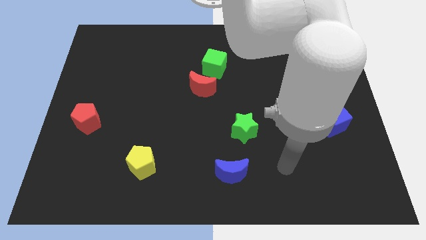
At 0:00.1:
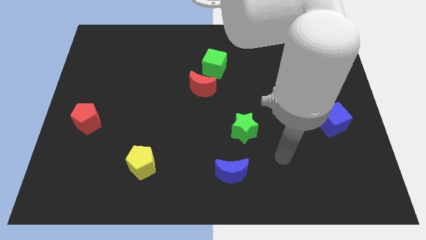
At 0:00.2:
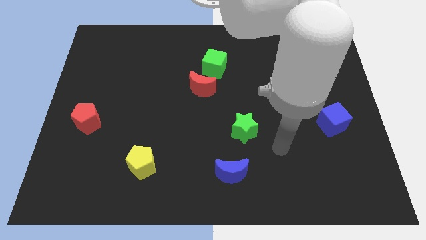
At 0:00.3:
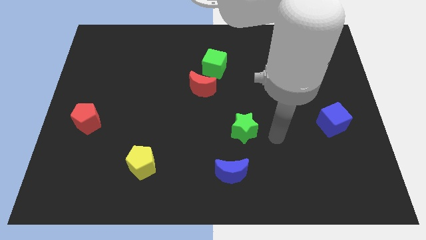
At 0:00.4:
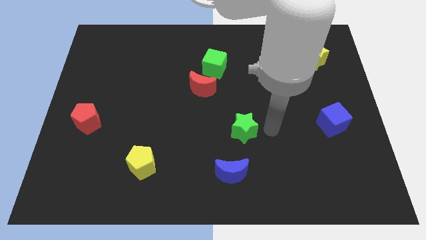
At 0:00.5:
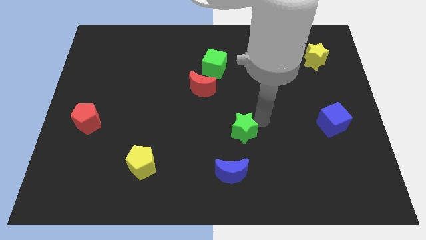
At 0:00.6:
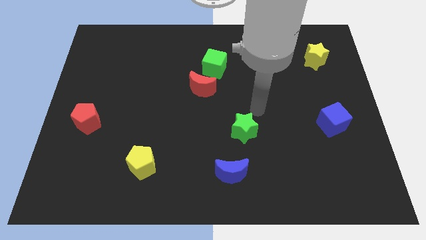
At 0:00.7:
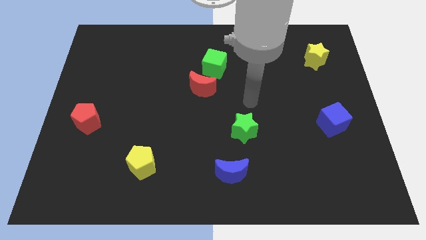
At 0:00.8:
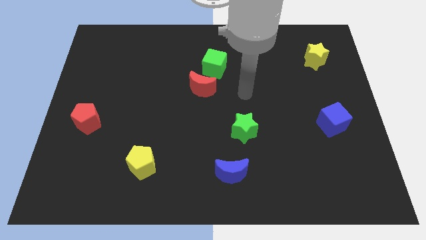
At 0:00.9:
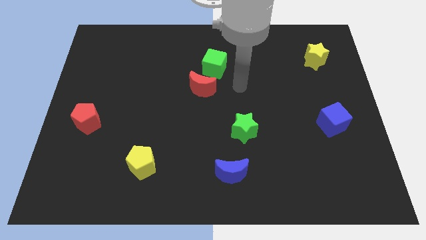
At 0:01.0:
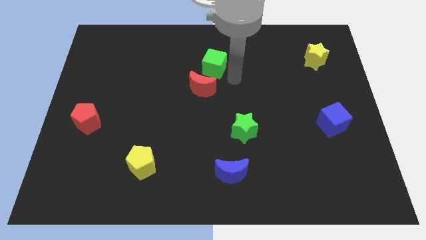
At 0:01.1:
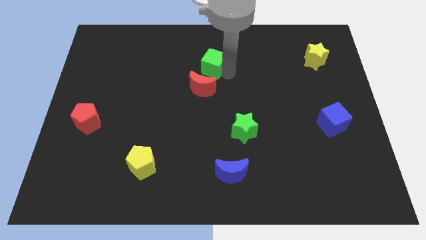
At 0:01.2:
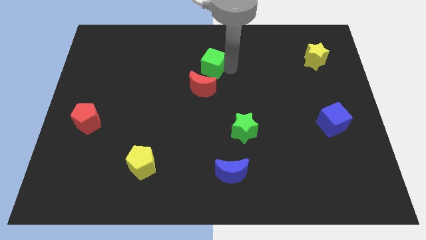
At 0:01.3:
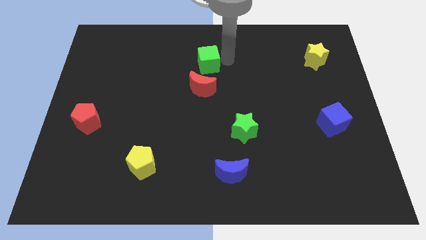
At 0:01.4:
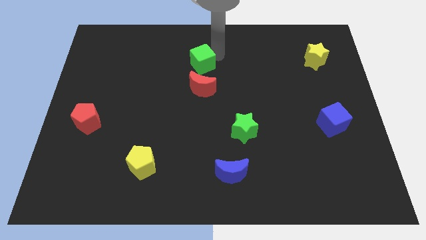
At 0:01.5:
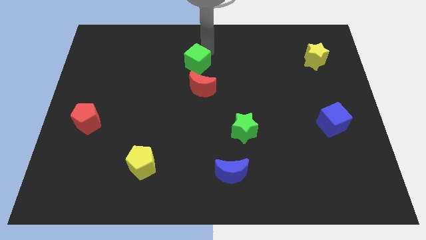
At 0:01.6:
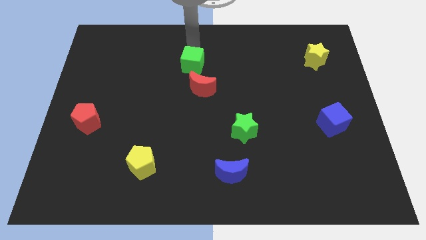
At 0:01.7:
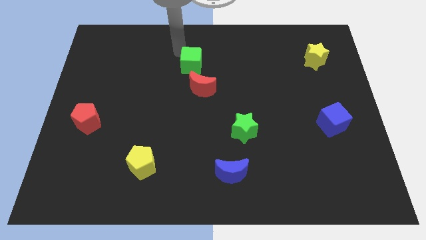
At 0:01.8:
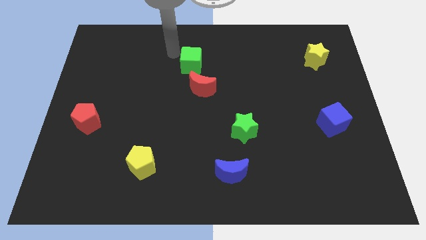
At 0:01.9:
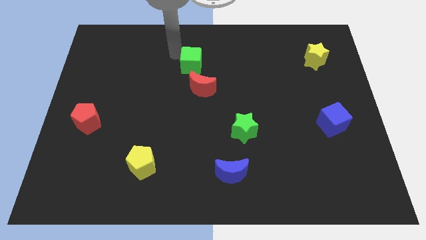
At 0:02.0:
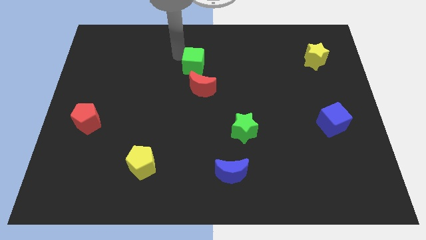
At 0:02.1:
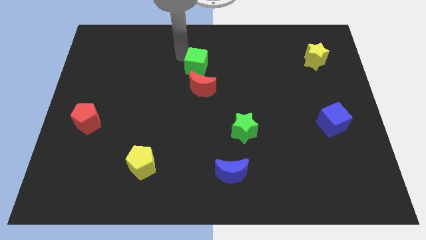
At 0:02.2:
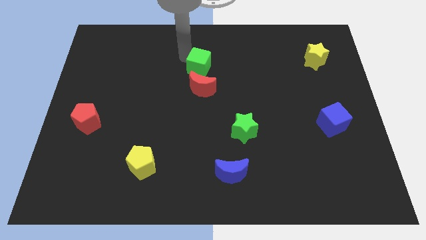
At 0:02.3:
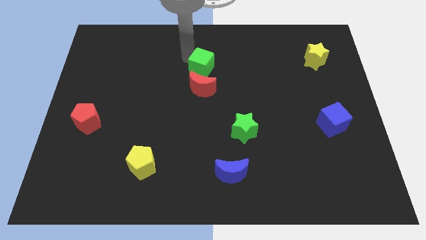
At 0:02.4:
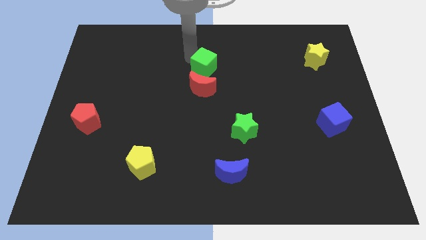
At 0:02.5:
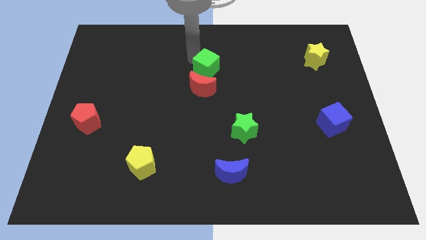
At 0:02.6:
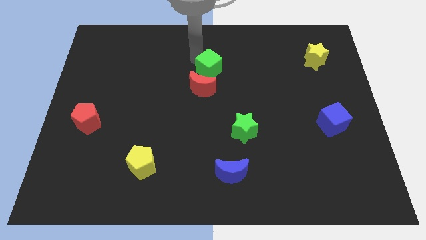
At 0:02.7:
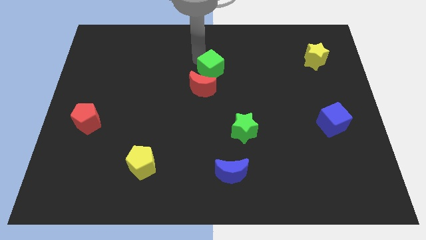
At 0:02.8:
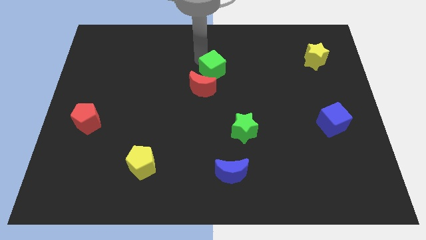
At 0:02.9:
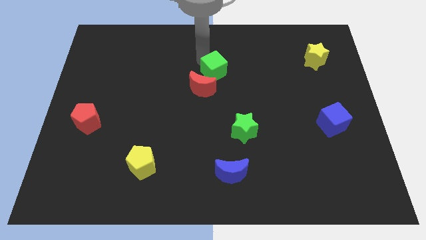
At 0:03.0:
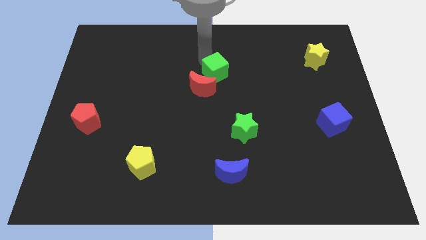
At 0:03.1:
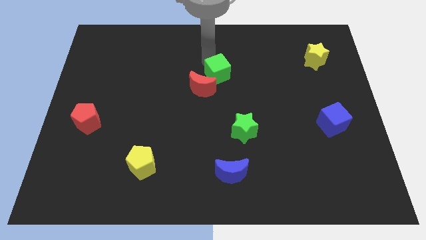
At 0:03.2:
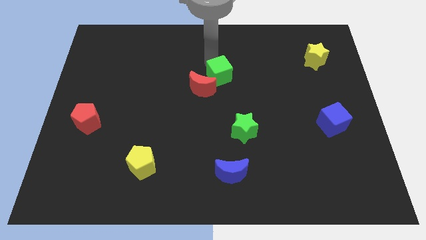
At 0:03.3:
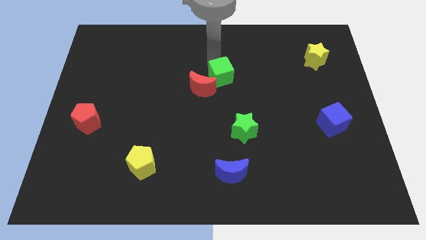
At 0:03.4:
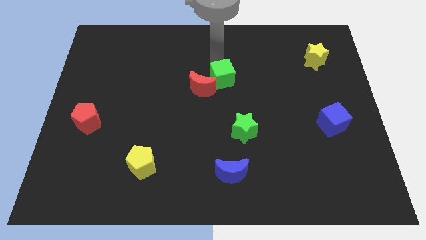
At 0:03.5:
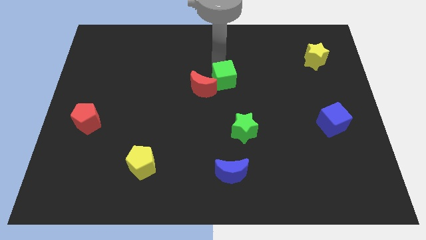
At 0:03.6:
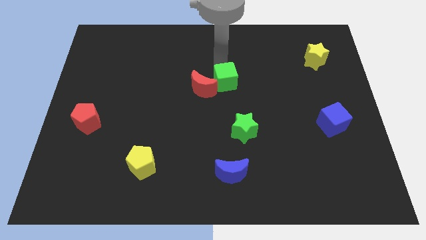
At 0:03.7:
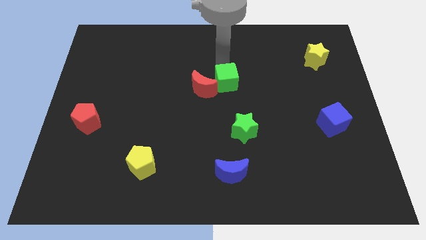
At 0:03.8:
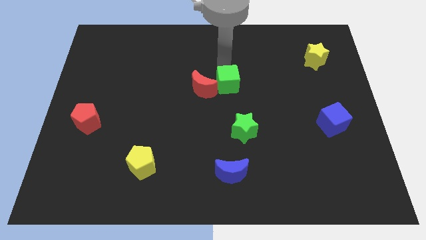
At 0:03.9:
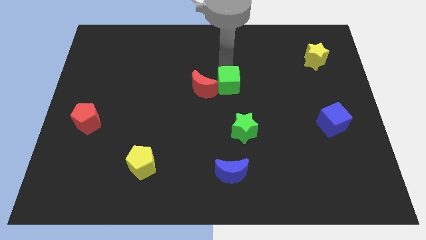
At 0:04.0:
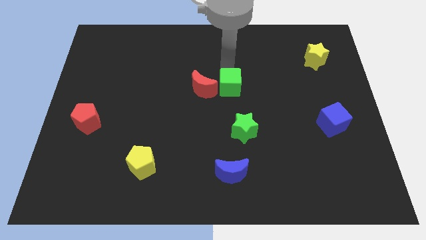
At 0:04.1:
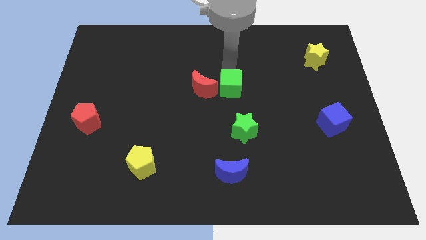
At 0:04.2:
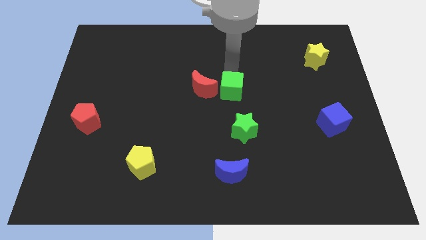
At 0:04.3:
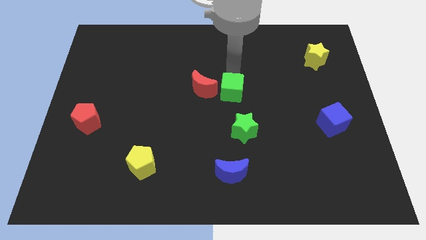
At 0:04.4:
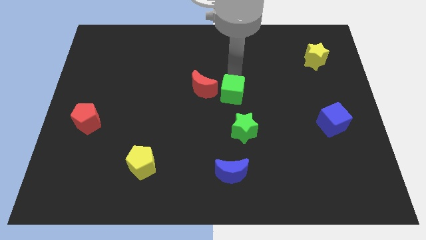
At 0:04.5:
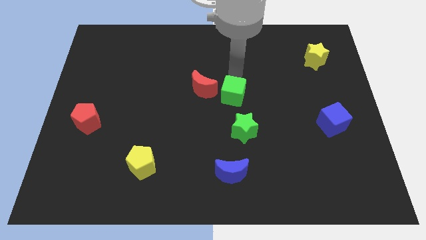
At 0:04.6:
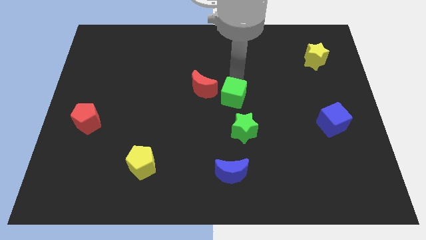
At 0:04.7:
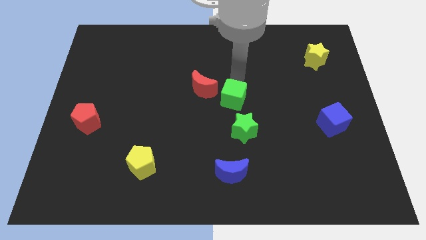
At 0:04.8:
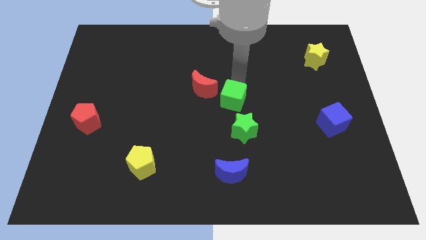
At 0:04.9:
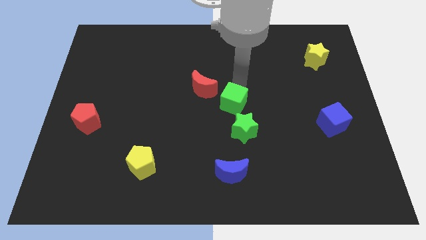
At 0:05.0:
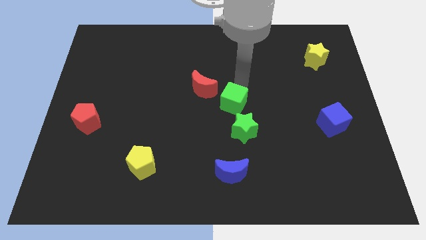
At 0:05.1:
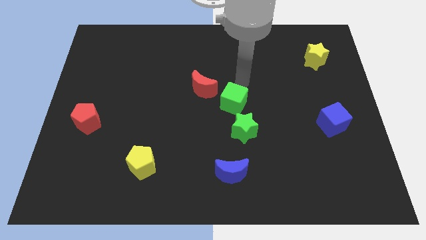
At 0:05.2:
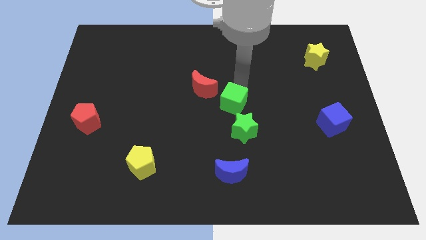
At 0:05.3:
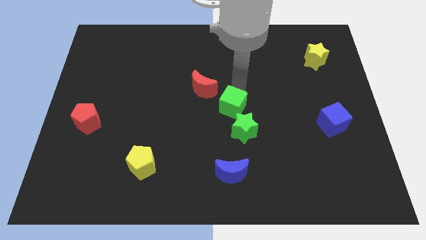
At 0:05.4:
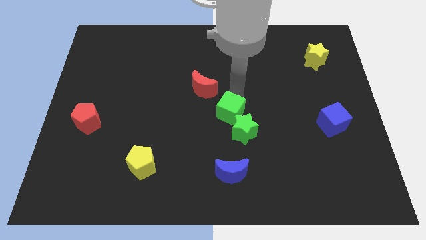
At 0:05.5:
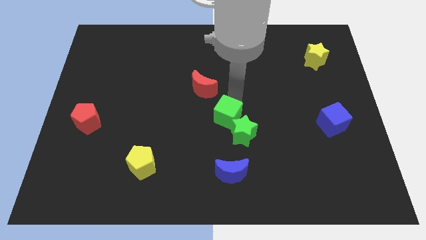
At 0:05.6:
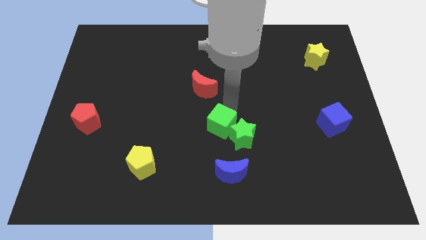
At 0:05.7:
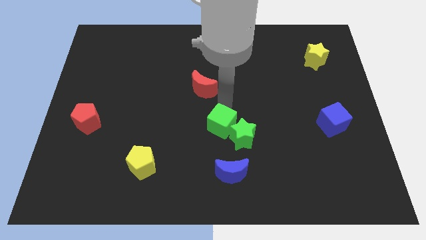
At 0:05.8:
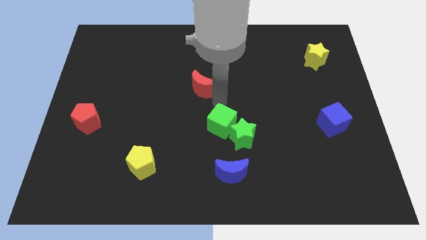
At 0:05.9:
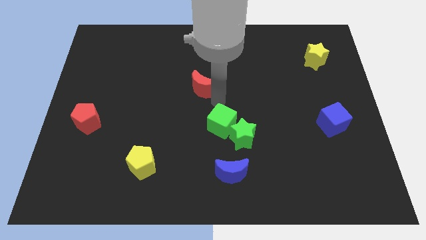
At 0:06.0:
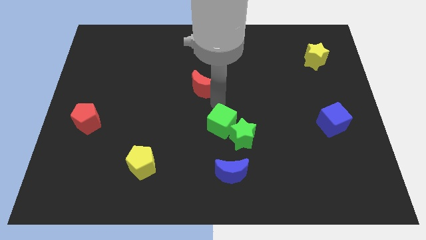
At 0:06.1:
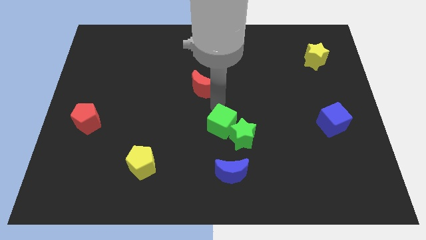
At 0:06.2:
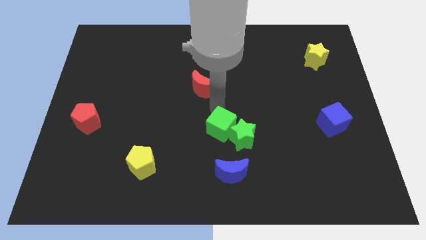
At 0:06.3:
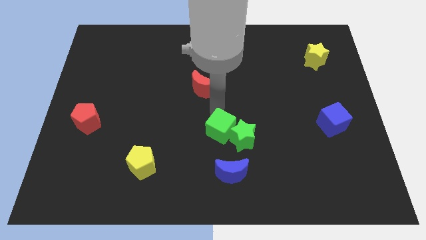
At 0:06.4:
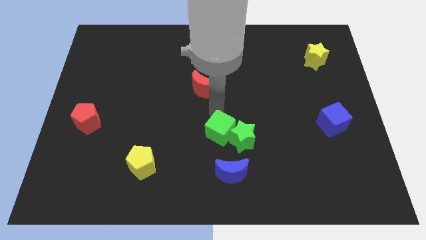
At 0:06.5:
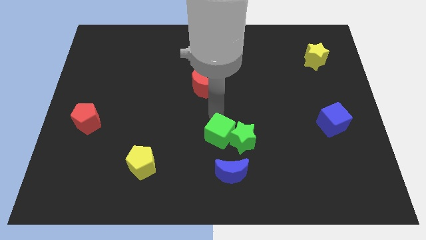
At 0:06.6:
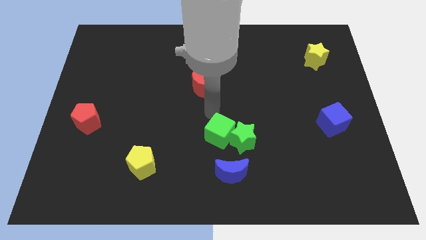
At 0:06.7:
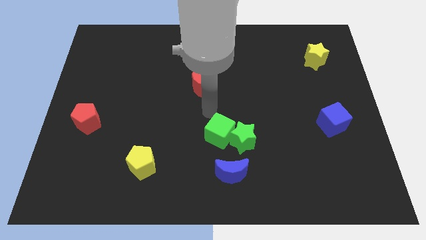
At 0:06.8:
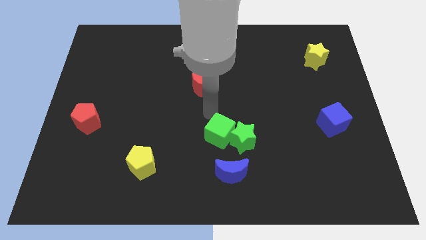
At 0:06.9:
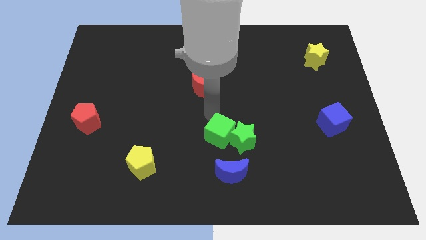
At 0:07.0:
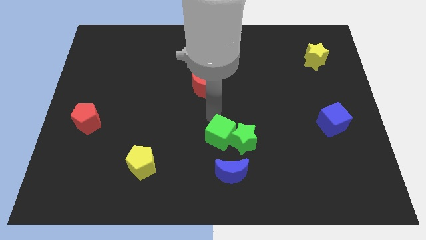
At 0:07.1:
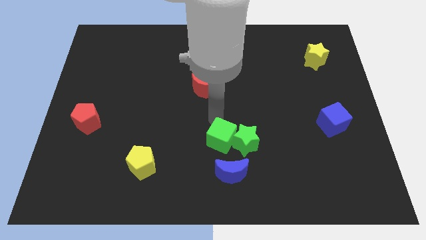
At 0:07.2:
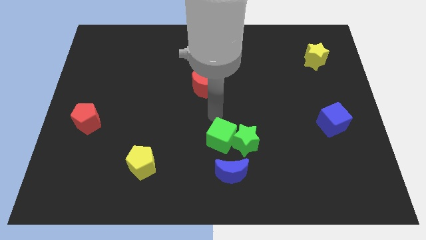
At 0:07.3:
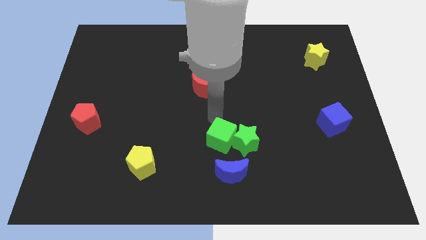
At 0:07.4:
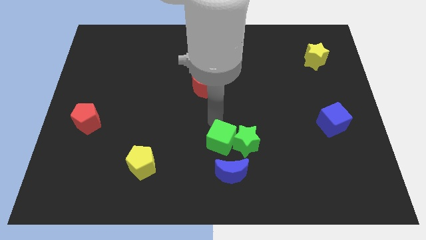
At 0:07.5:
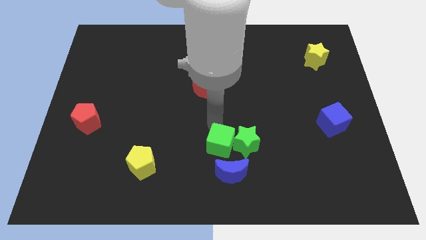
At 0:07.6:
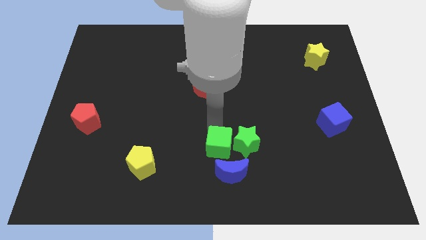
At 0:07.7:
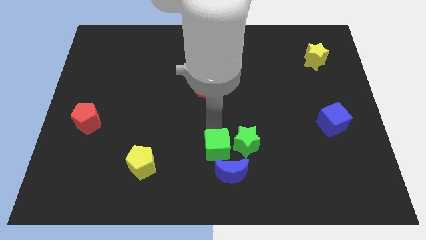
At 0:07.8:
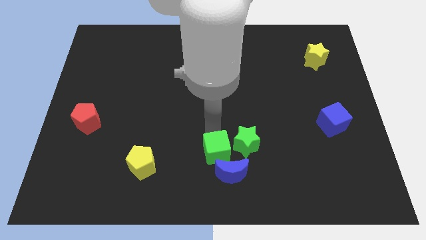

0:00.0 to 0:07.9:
put the green cube next to the blue moon

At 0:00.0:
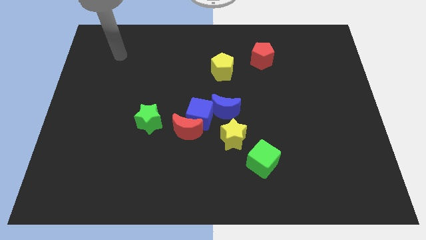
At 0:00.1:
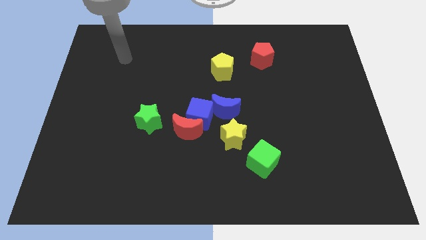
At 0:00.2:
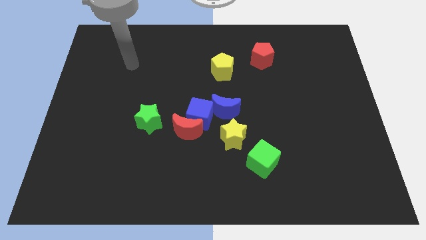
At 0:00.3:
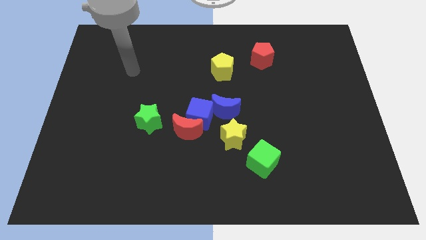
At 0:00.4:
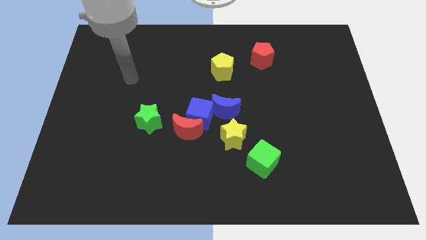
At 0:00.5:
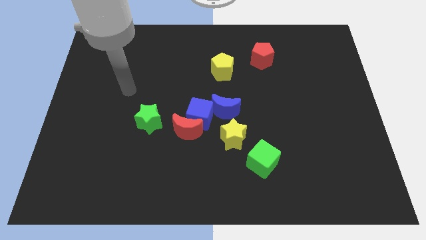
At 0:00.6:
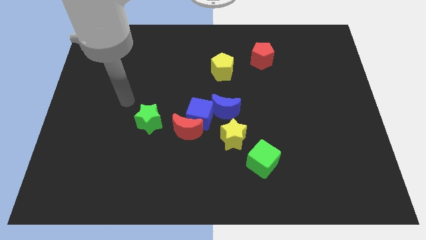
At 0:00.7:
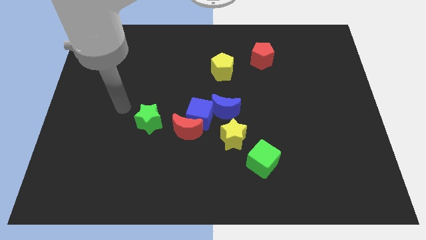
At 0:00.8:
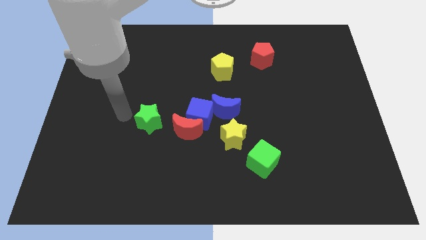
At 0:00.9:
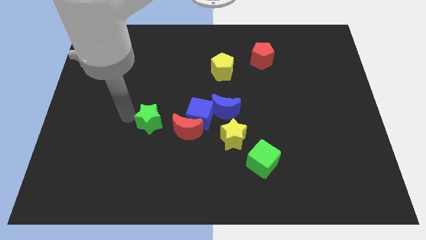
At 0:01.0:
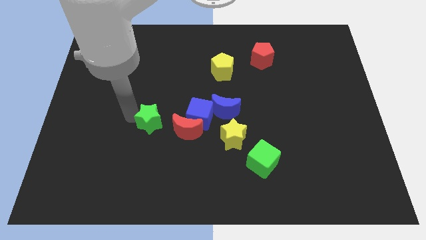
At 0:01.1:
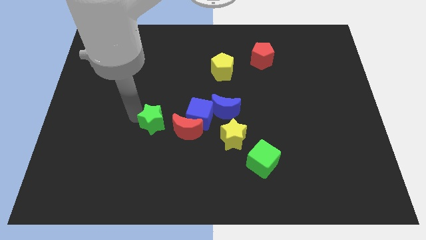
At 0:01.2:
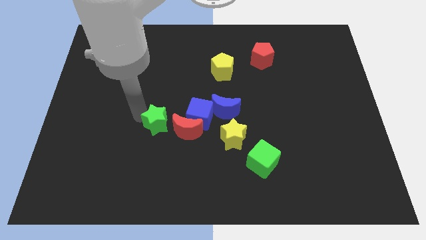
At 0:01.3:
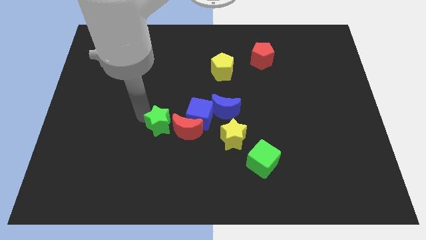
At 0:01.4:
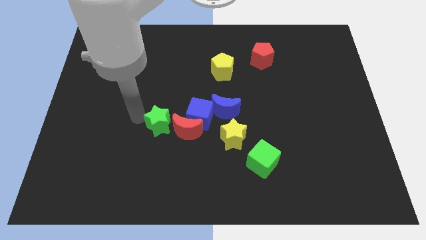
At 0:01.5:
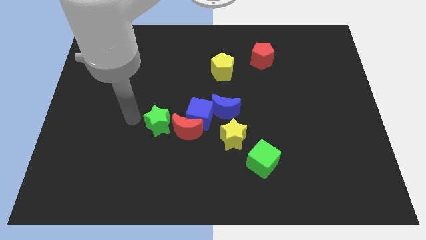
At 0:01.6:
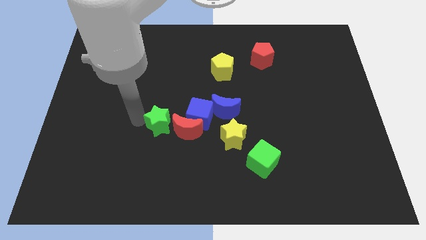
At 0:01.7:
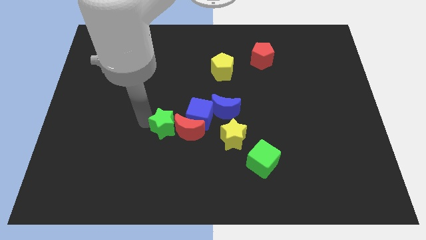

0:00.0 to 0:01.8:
move the green star close to the red moon
